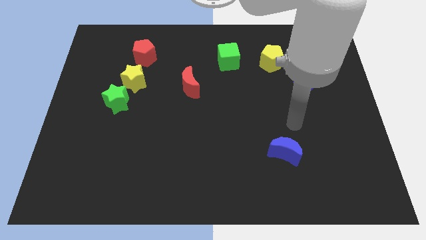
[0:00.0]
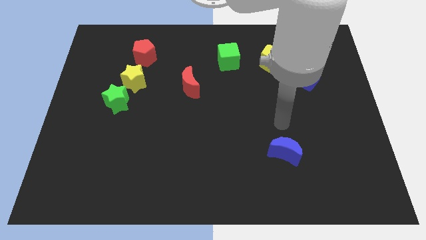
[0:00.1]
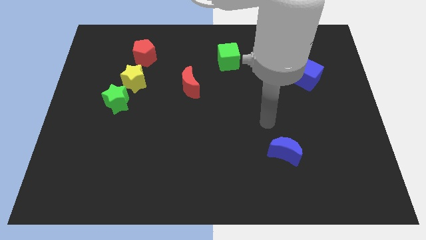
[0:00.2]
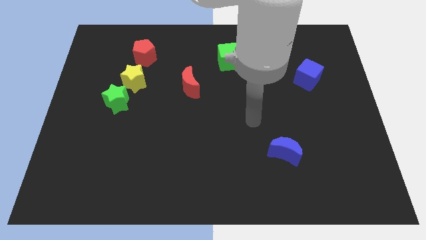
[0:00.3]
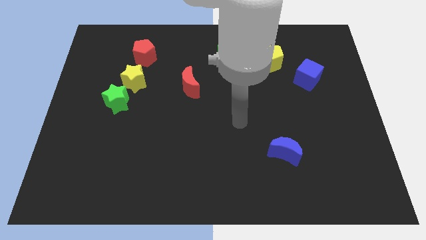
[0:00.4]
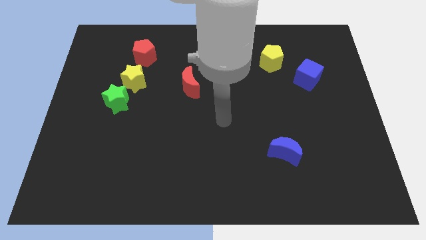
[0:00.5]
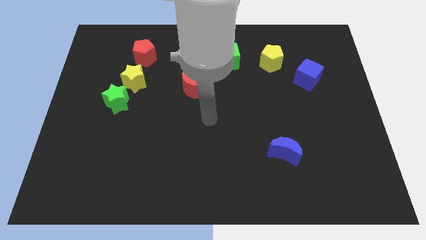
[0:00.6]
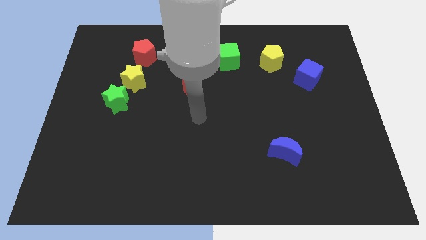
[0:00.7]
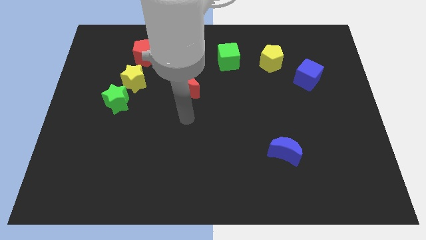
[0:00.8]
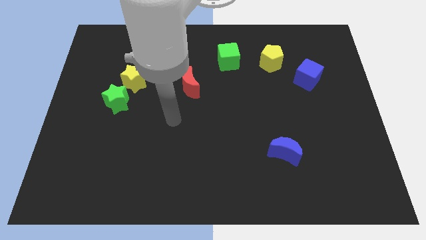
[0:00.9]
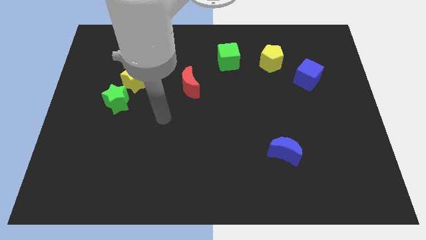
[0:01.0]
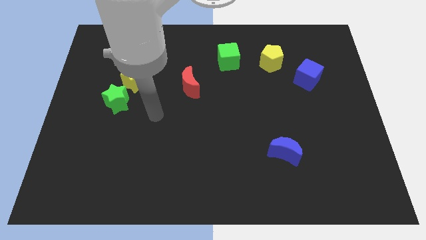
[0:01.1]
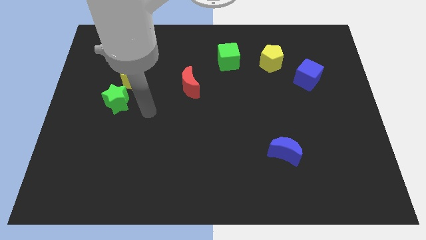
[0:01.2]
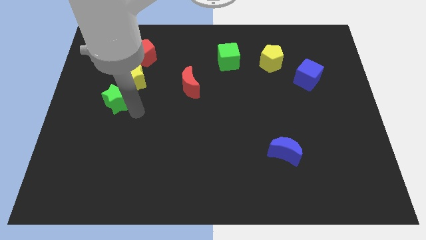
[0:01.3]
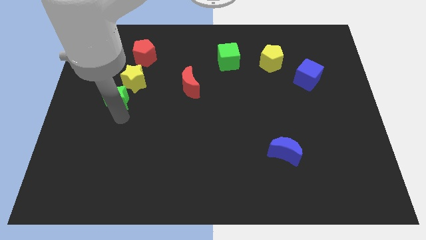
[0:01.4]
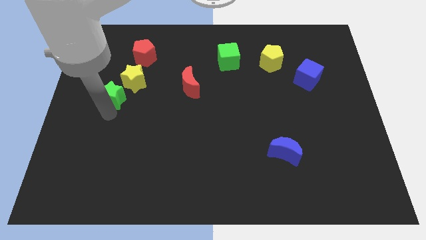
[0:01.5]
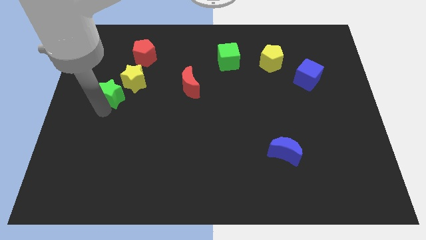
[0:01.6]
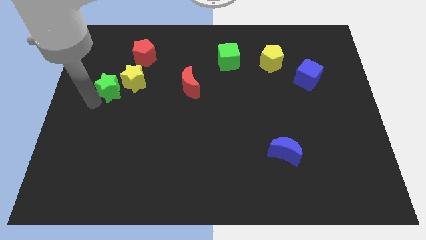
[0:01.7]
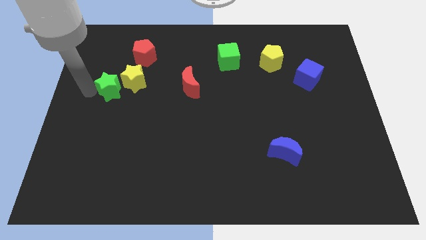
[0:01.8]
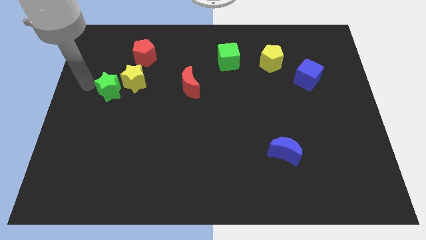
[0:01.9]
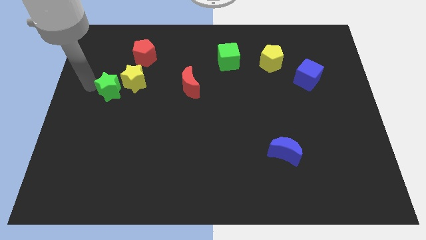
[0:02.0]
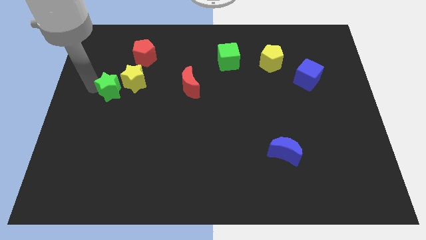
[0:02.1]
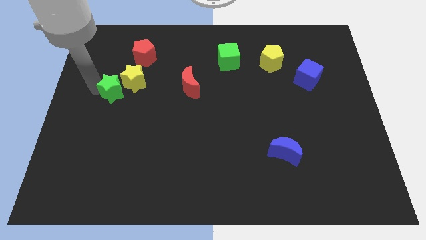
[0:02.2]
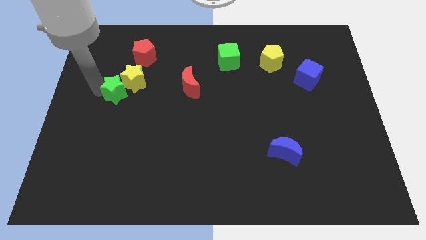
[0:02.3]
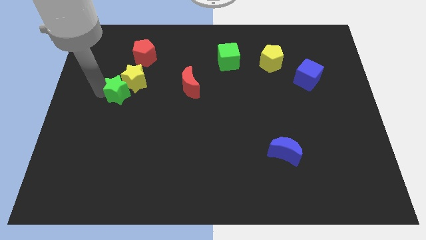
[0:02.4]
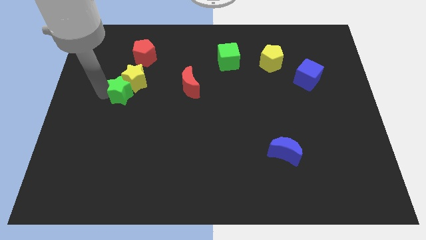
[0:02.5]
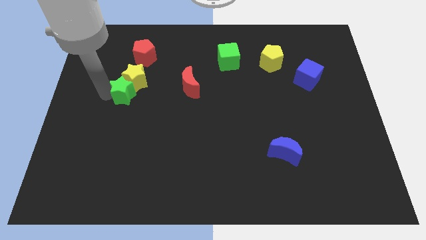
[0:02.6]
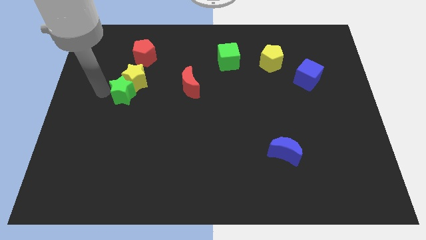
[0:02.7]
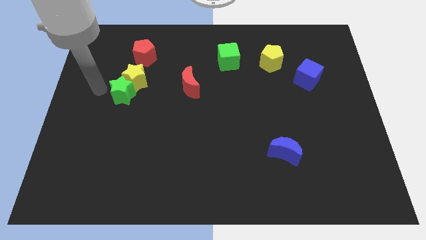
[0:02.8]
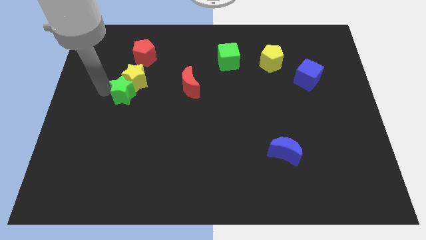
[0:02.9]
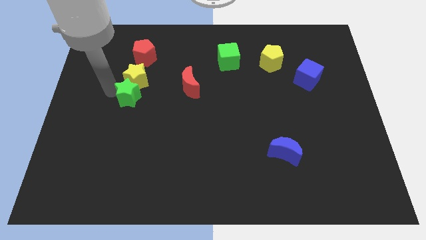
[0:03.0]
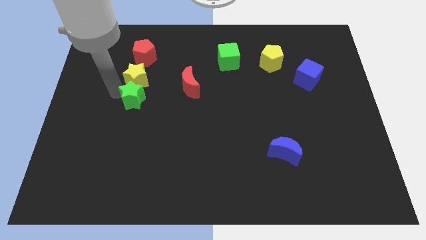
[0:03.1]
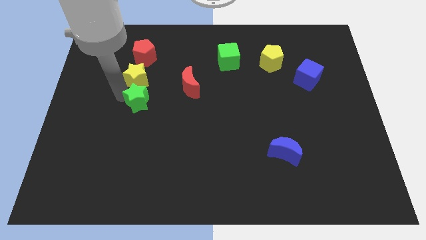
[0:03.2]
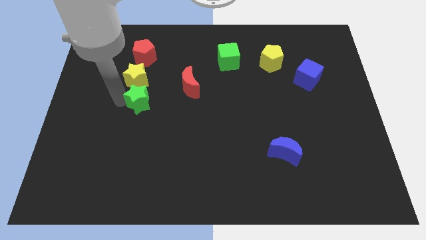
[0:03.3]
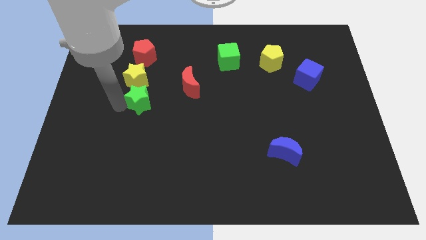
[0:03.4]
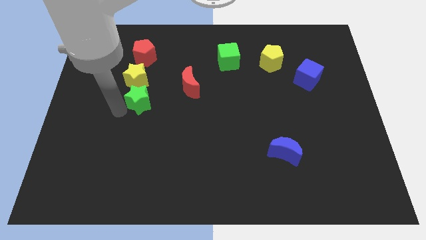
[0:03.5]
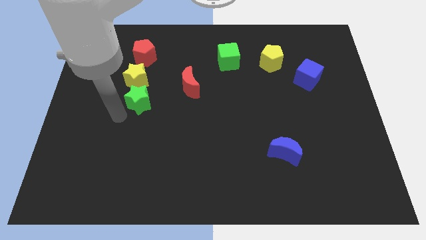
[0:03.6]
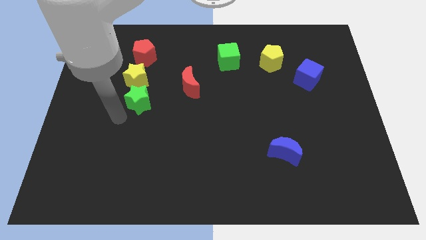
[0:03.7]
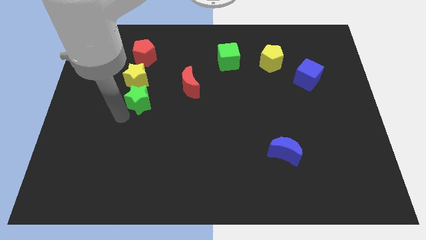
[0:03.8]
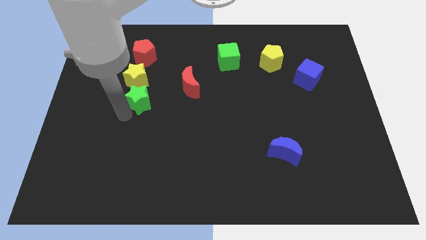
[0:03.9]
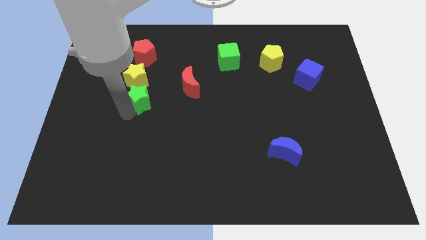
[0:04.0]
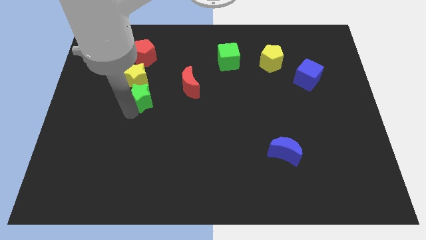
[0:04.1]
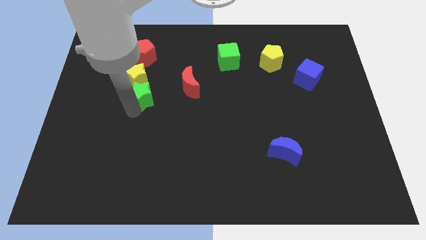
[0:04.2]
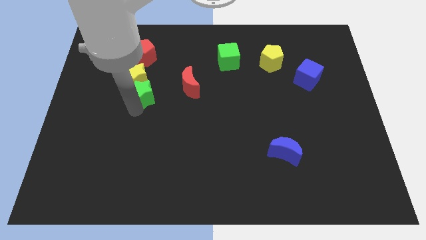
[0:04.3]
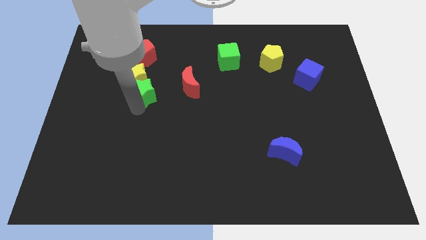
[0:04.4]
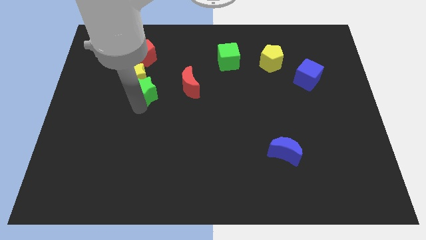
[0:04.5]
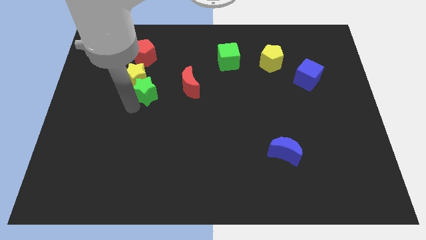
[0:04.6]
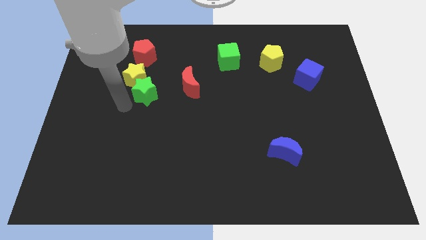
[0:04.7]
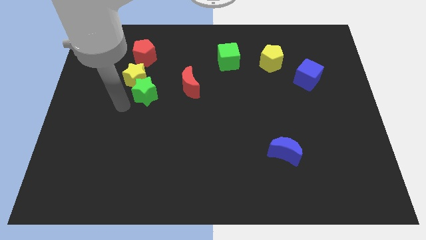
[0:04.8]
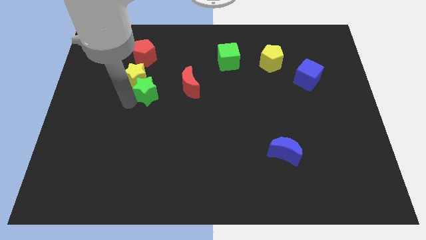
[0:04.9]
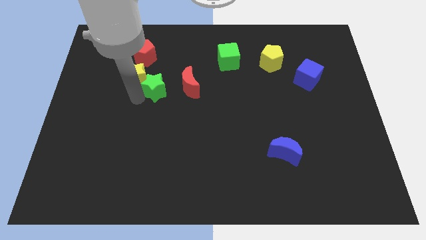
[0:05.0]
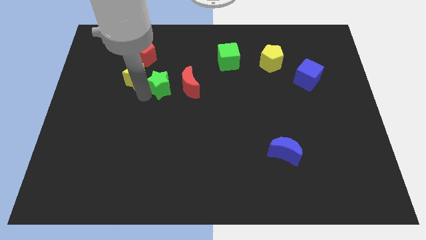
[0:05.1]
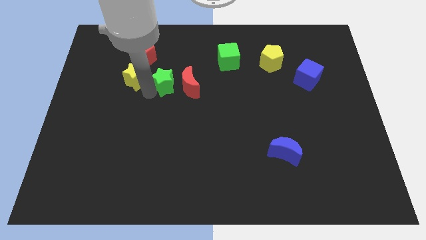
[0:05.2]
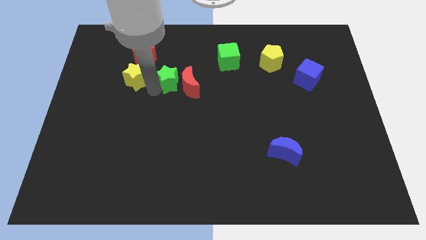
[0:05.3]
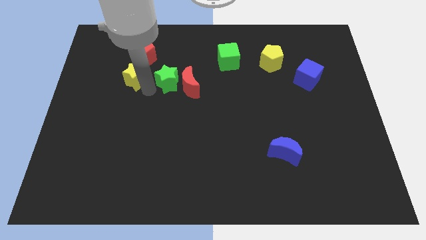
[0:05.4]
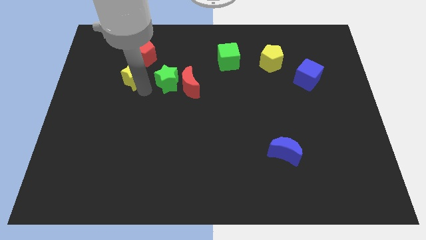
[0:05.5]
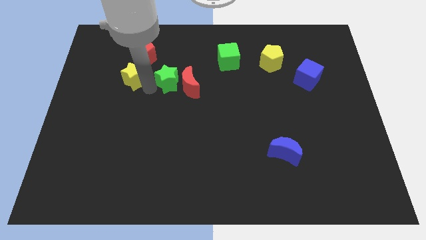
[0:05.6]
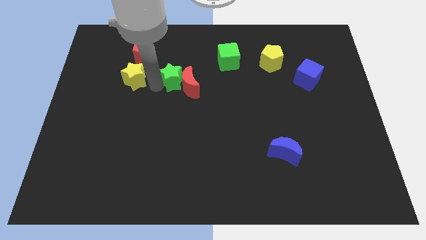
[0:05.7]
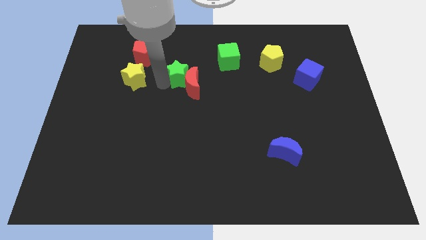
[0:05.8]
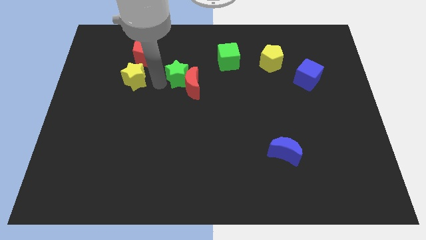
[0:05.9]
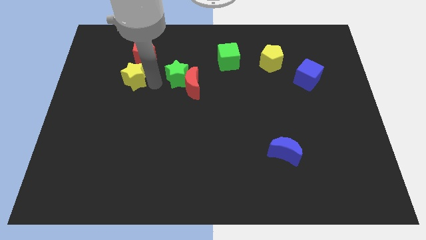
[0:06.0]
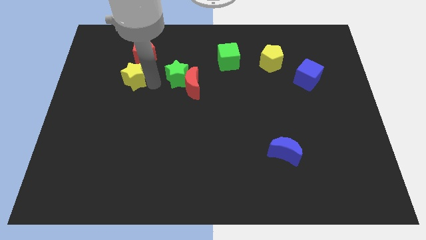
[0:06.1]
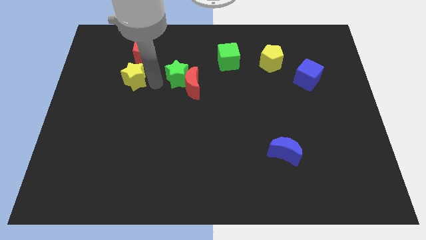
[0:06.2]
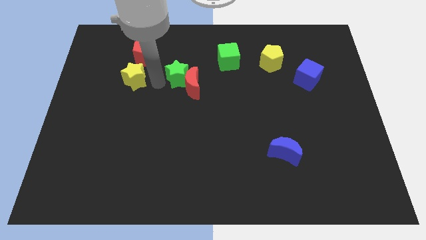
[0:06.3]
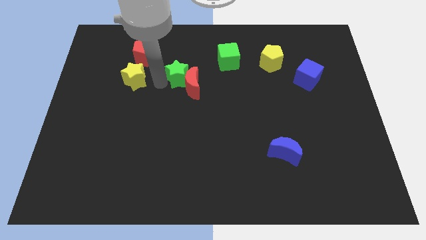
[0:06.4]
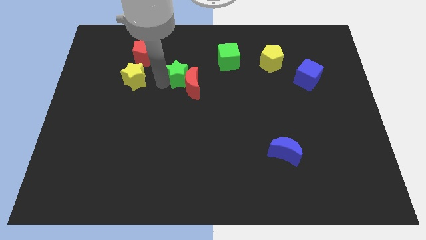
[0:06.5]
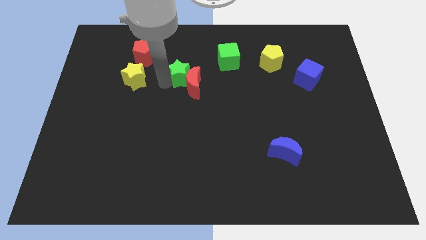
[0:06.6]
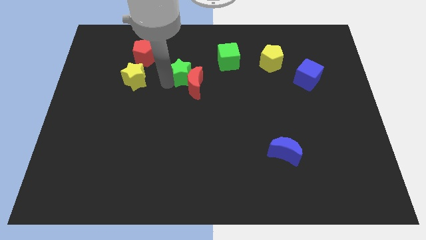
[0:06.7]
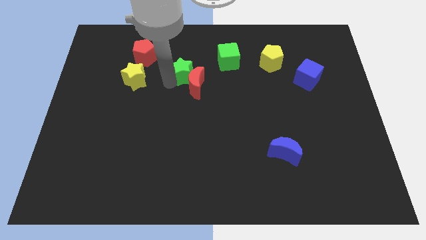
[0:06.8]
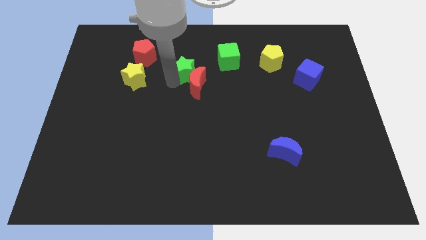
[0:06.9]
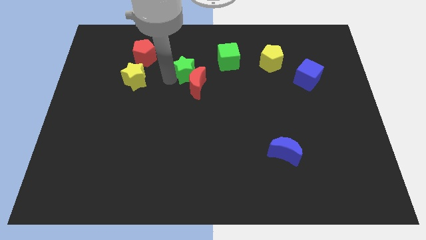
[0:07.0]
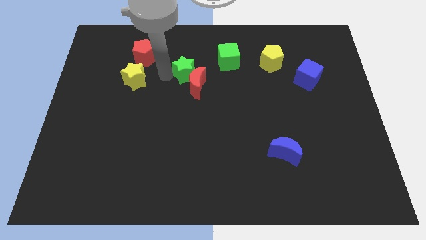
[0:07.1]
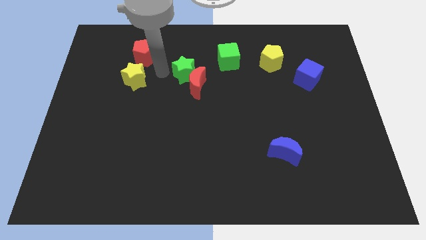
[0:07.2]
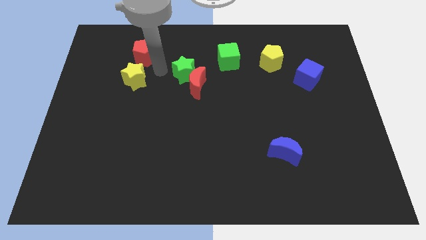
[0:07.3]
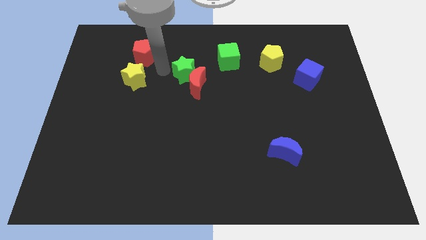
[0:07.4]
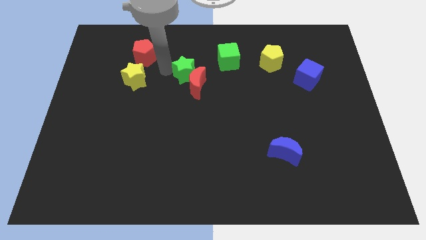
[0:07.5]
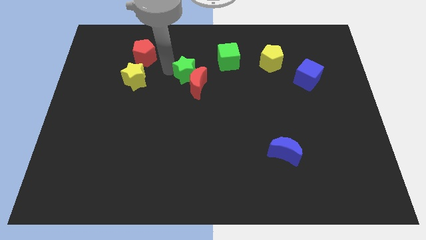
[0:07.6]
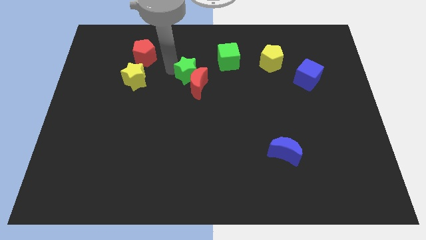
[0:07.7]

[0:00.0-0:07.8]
push the green star diagonally down and to the left of the green cube
